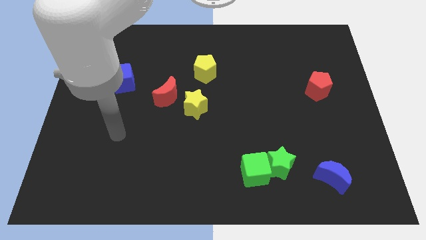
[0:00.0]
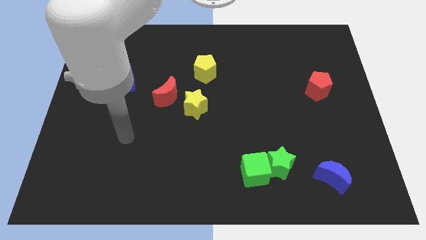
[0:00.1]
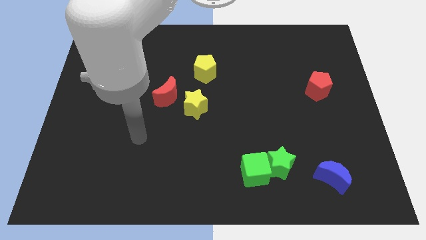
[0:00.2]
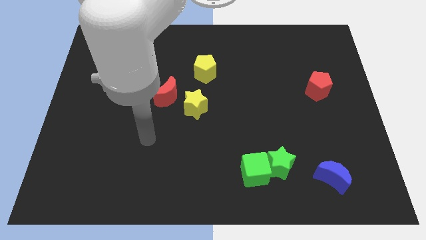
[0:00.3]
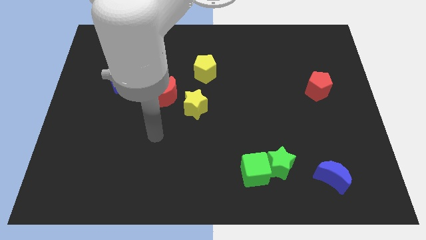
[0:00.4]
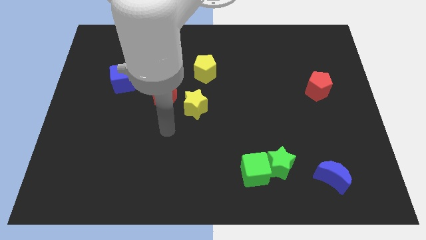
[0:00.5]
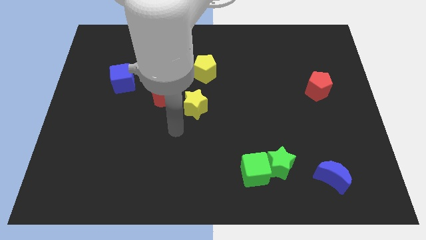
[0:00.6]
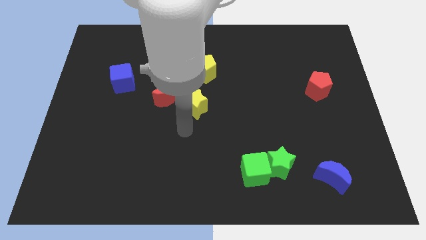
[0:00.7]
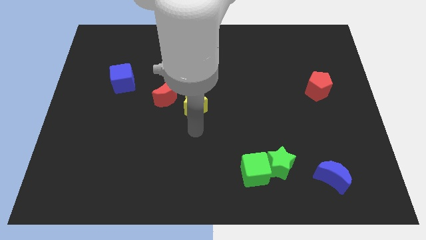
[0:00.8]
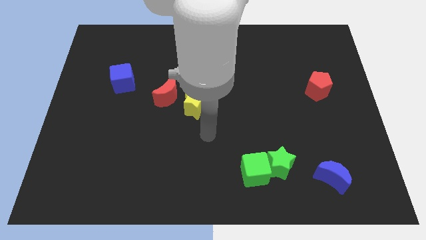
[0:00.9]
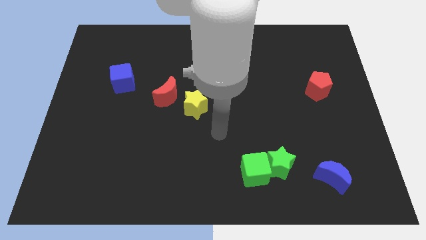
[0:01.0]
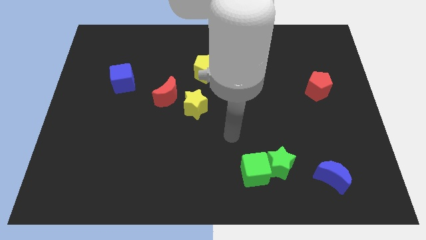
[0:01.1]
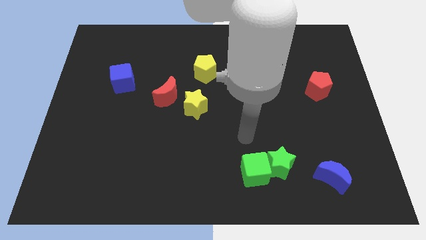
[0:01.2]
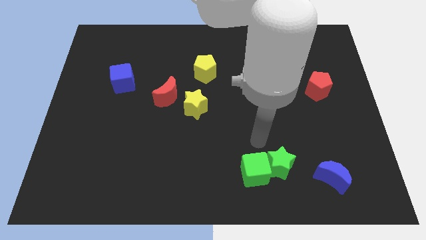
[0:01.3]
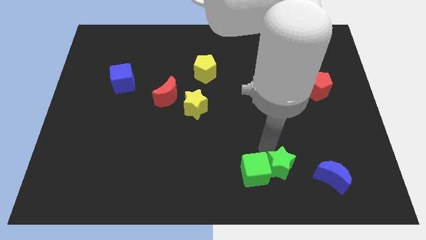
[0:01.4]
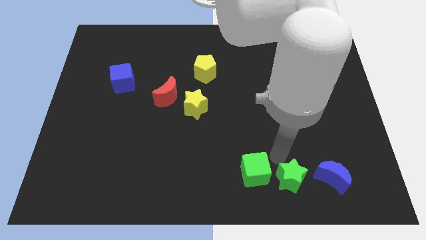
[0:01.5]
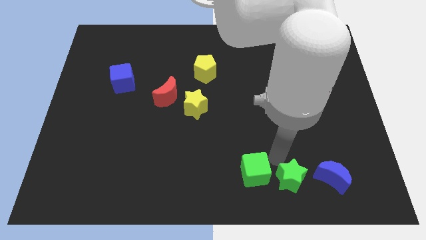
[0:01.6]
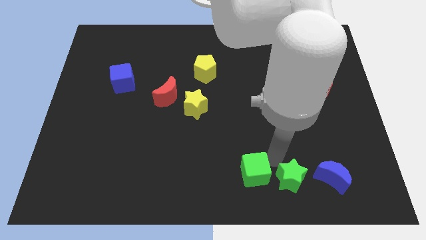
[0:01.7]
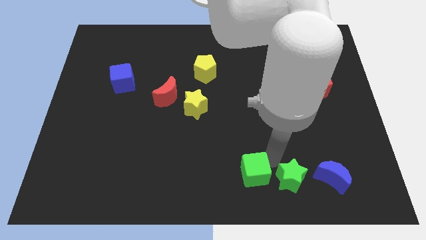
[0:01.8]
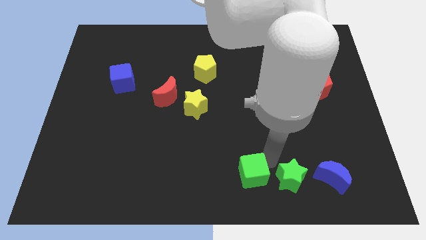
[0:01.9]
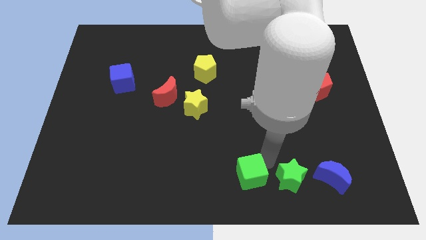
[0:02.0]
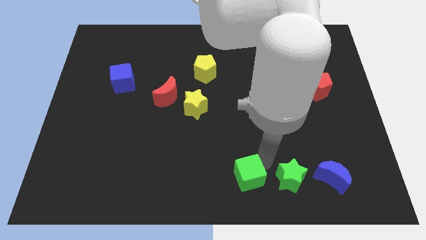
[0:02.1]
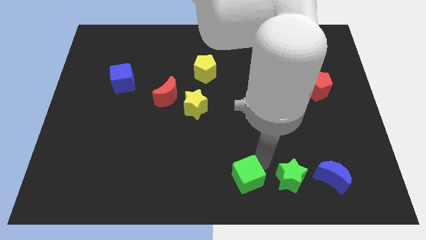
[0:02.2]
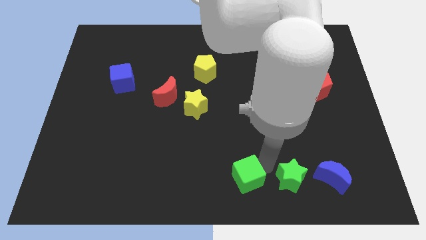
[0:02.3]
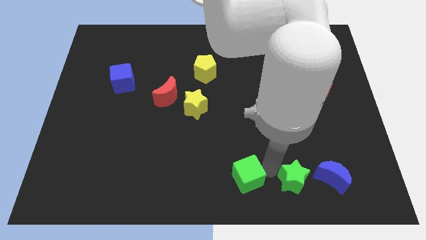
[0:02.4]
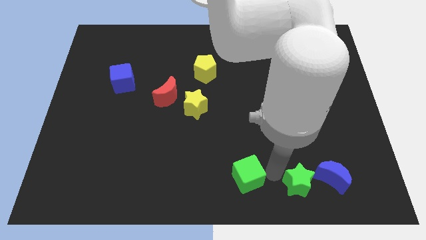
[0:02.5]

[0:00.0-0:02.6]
pull the green cube apart from the green star

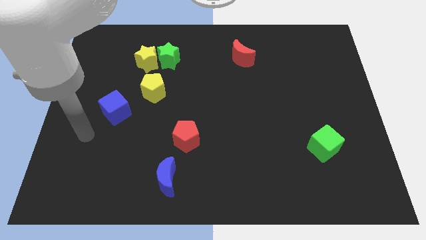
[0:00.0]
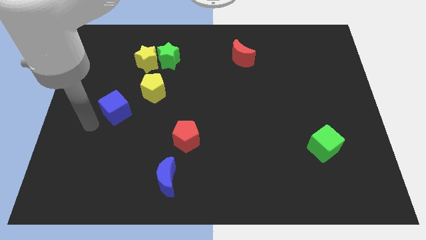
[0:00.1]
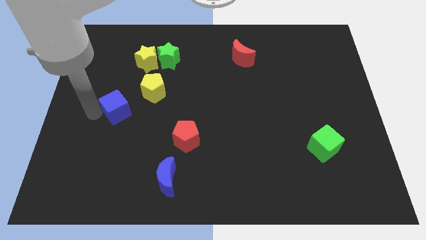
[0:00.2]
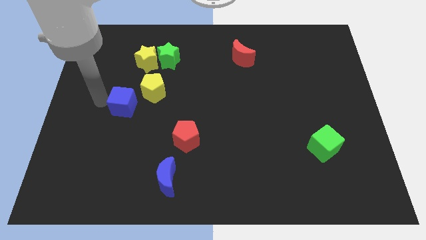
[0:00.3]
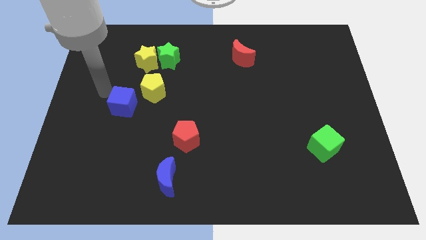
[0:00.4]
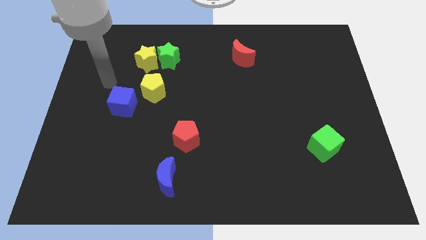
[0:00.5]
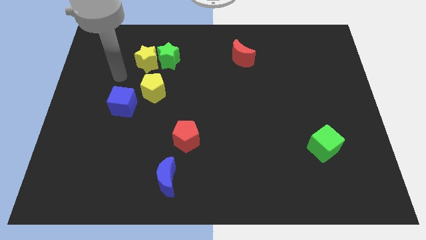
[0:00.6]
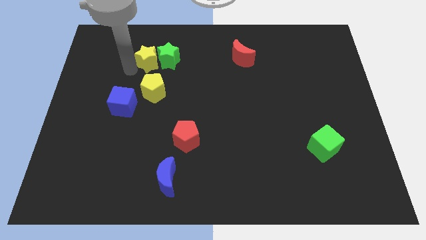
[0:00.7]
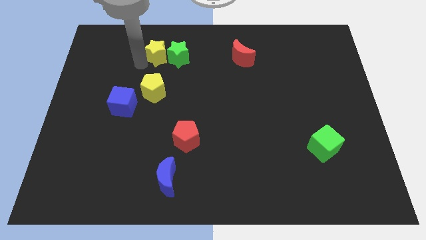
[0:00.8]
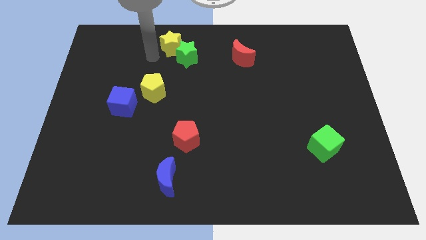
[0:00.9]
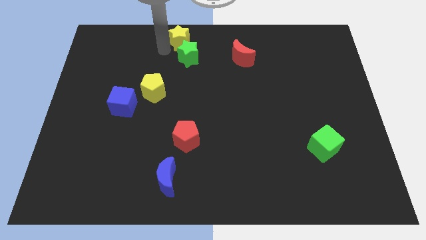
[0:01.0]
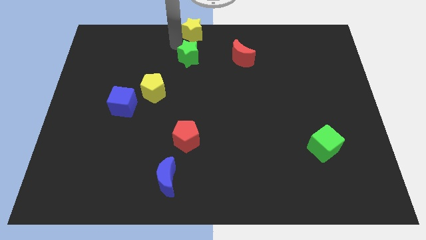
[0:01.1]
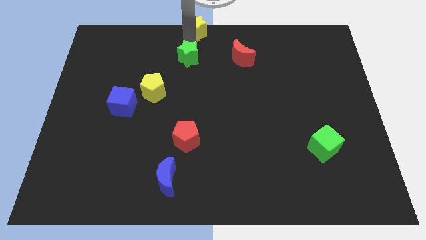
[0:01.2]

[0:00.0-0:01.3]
pull the green star apart from the yellow star

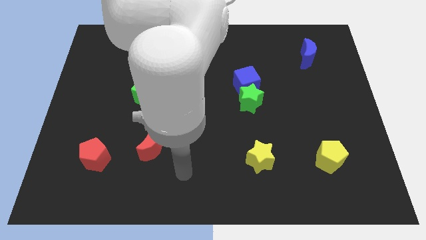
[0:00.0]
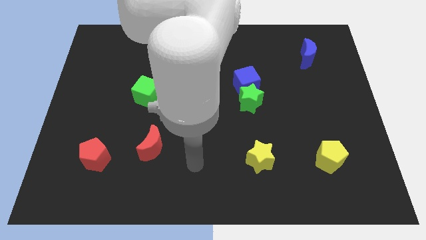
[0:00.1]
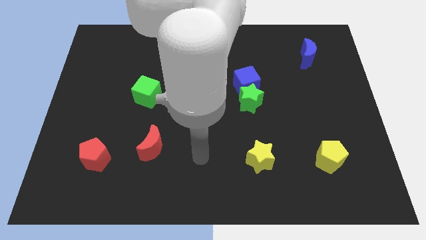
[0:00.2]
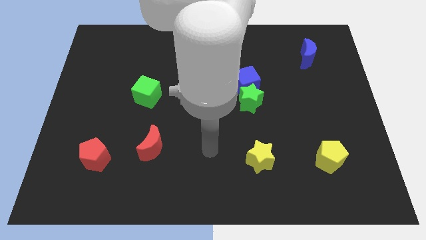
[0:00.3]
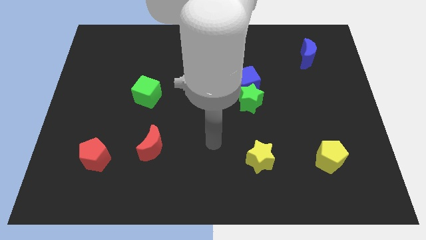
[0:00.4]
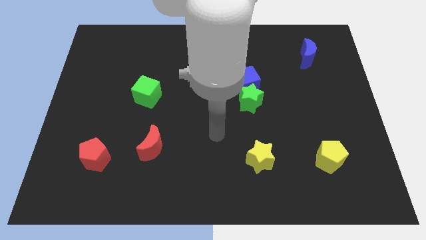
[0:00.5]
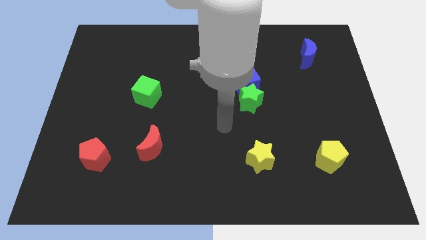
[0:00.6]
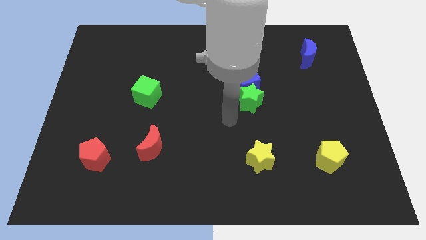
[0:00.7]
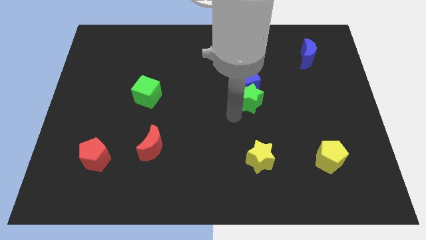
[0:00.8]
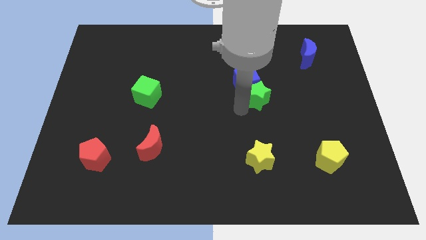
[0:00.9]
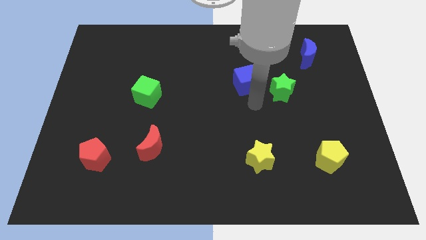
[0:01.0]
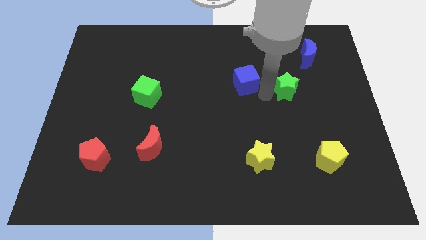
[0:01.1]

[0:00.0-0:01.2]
move the blue cube away from the green star

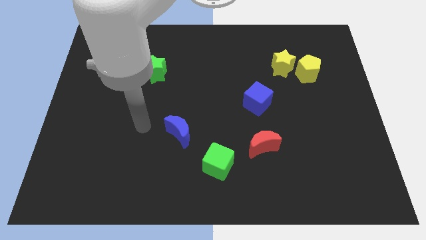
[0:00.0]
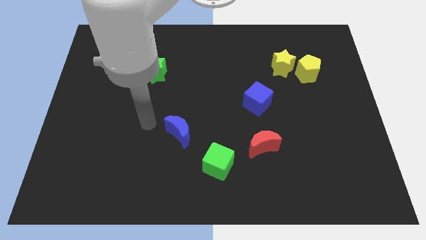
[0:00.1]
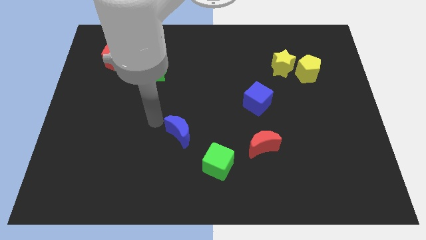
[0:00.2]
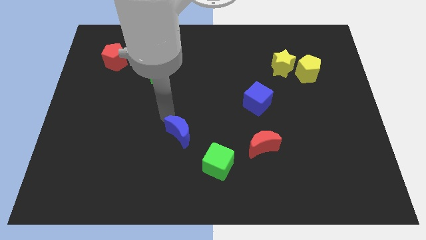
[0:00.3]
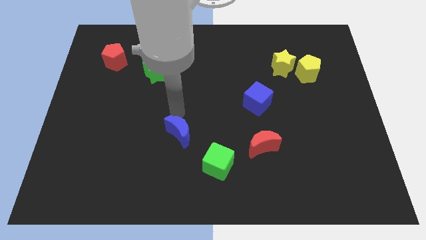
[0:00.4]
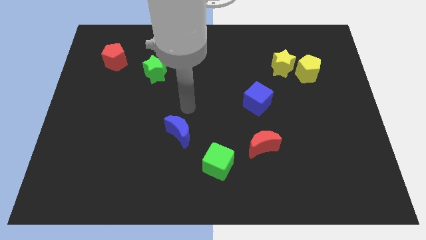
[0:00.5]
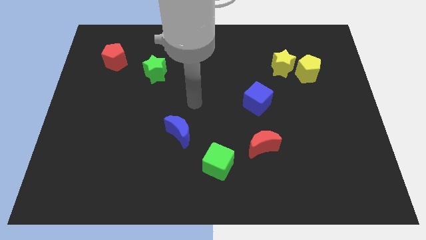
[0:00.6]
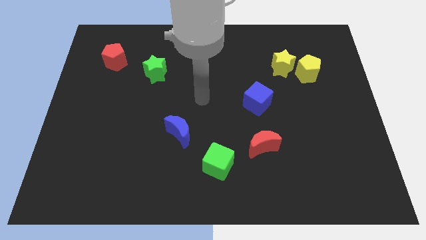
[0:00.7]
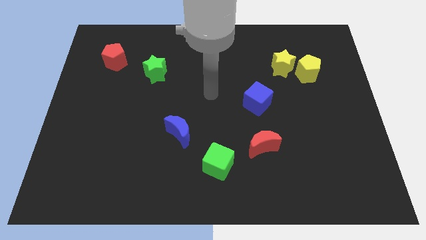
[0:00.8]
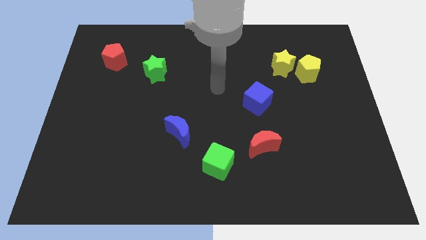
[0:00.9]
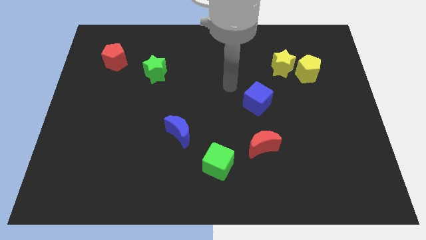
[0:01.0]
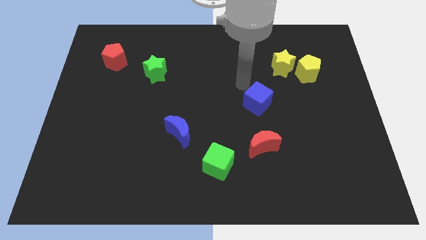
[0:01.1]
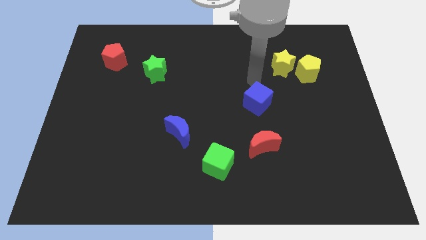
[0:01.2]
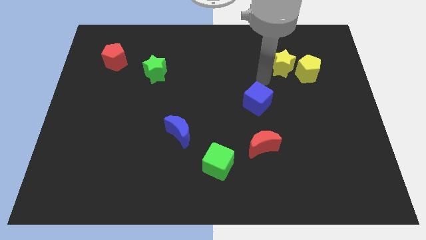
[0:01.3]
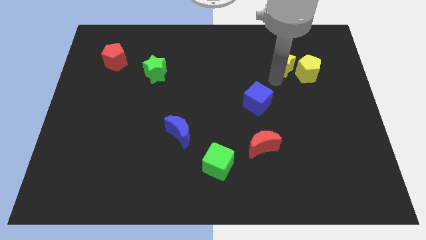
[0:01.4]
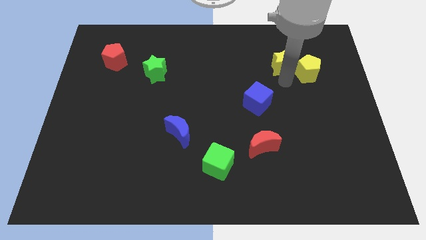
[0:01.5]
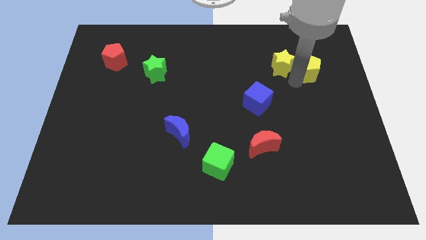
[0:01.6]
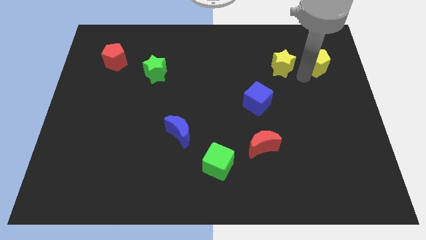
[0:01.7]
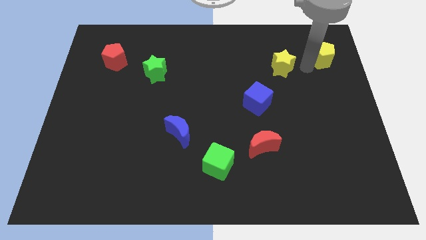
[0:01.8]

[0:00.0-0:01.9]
pull the yellow star apart from the yellow pentagon

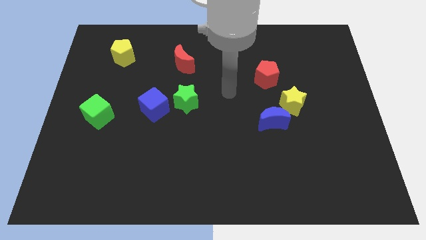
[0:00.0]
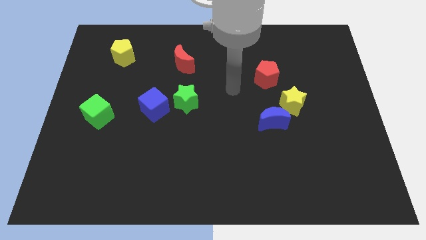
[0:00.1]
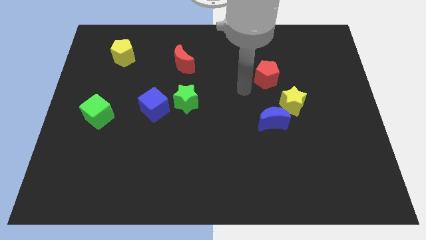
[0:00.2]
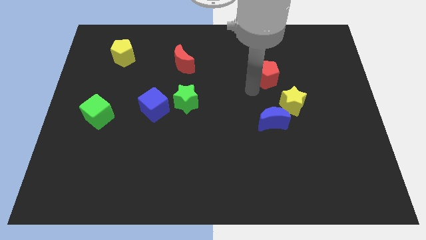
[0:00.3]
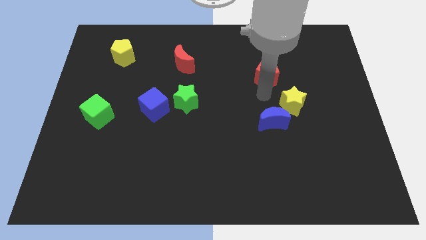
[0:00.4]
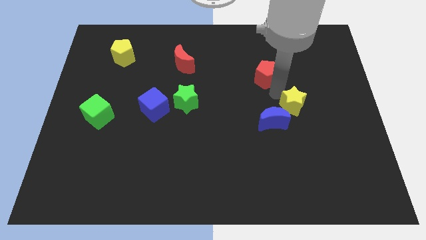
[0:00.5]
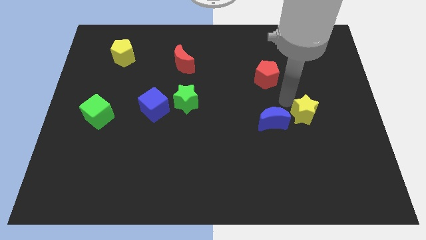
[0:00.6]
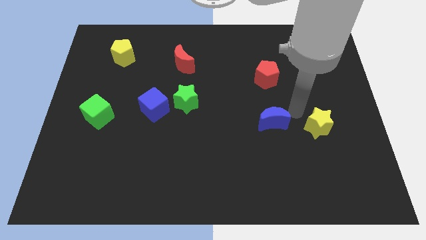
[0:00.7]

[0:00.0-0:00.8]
move the blue moon away from the yellow star

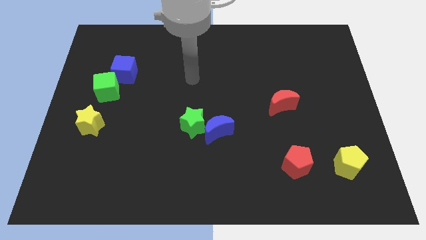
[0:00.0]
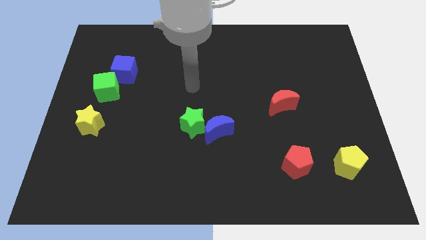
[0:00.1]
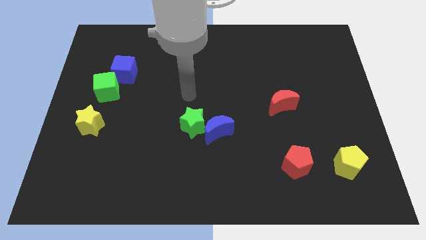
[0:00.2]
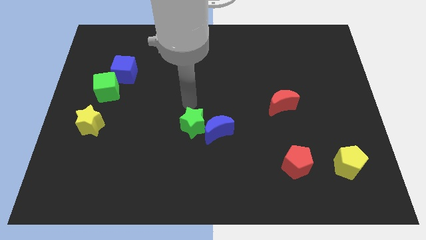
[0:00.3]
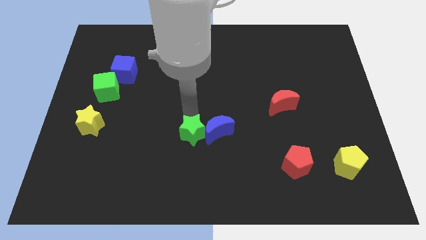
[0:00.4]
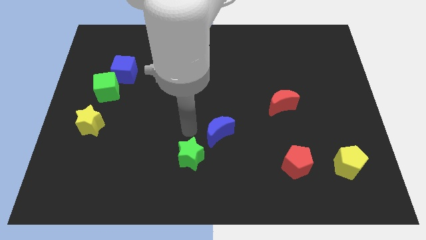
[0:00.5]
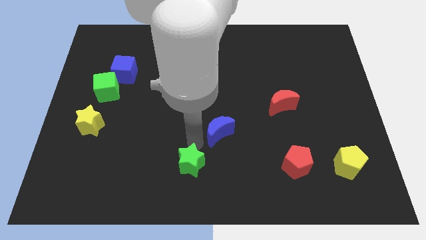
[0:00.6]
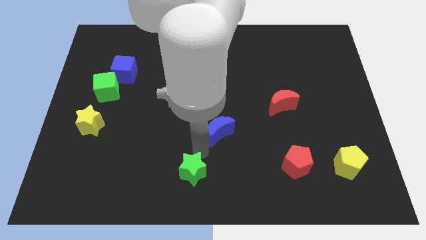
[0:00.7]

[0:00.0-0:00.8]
move the blue moon away from the green star

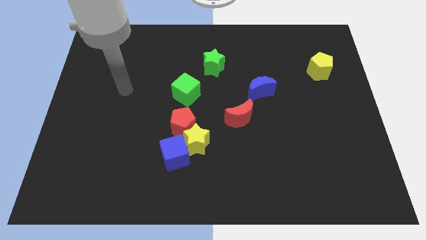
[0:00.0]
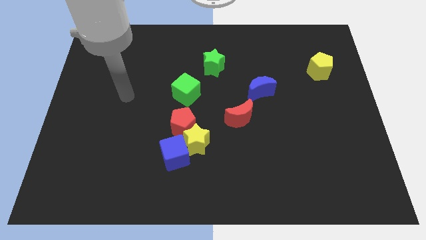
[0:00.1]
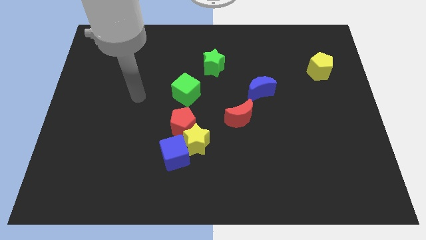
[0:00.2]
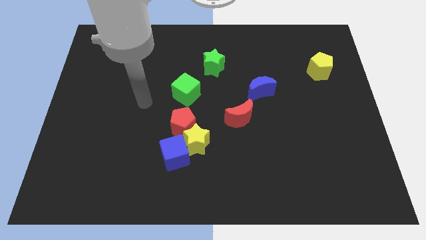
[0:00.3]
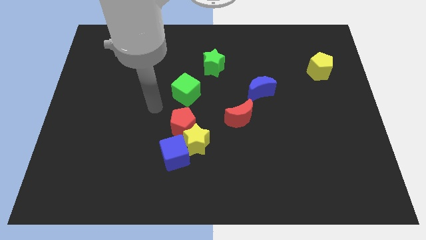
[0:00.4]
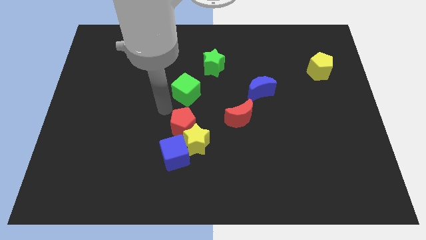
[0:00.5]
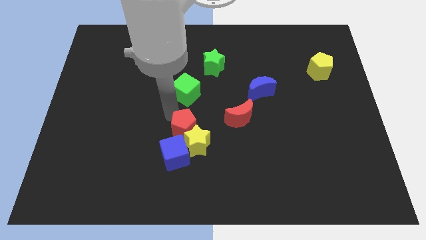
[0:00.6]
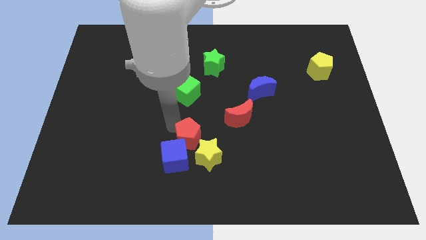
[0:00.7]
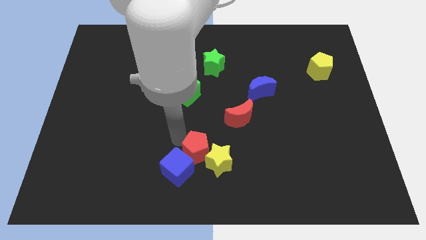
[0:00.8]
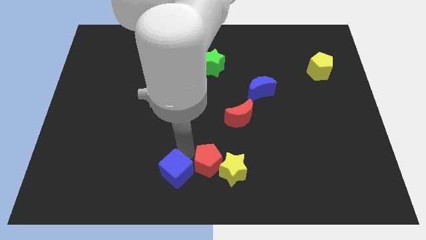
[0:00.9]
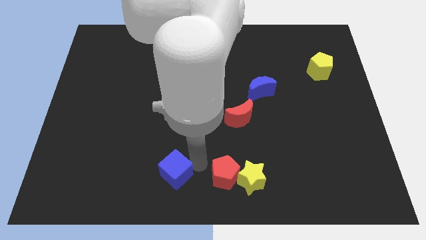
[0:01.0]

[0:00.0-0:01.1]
move the yellow star away from the blue cube and red pentagon
